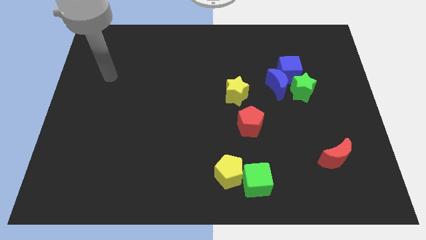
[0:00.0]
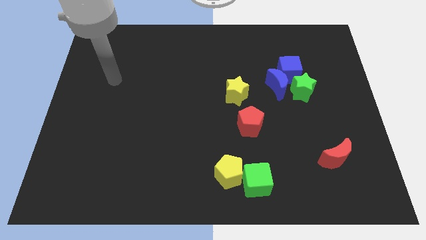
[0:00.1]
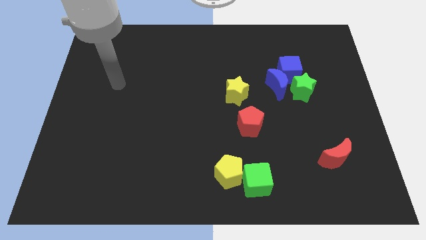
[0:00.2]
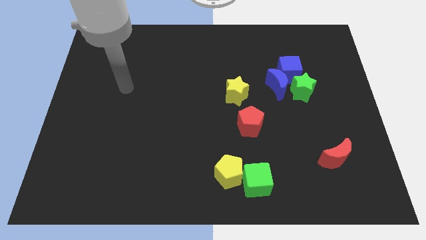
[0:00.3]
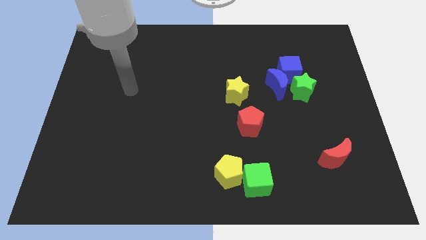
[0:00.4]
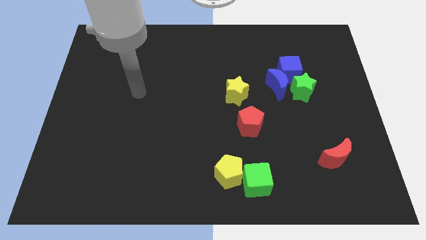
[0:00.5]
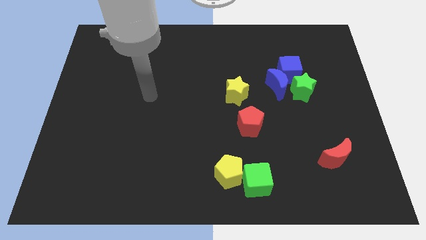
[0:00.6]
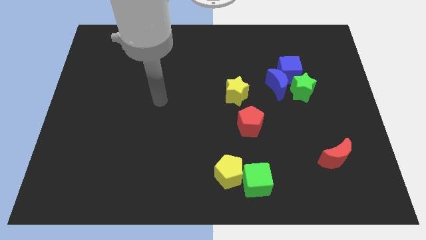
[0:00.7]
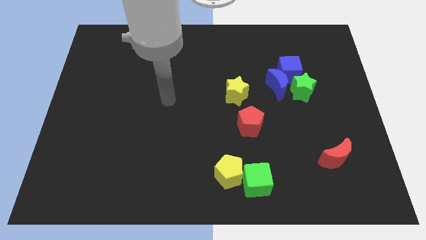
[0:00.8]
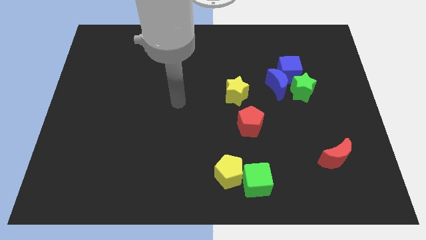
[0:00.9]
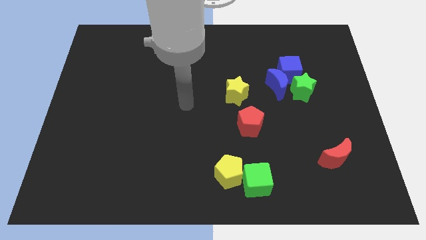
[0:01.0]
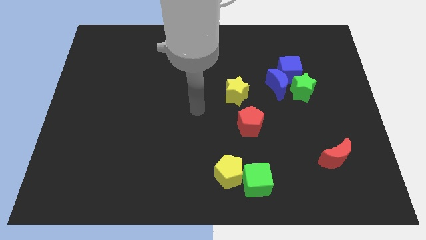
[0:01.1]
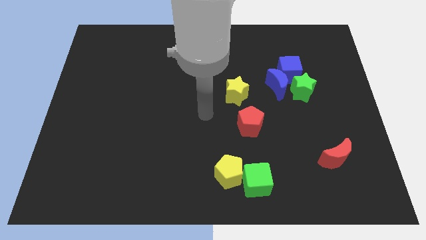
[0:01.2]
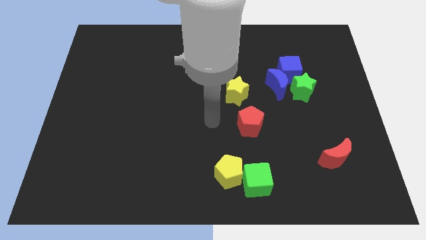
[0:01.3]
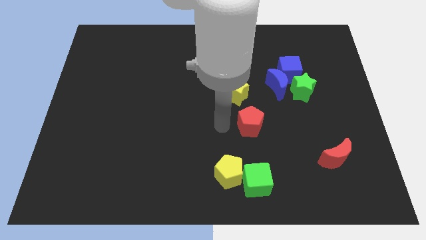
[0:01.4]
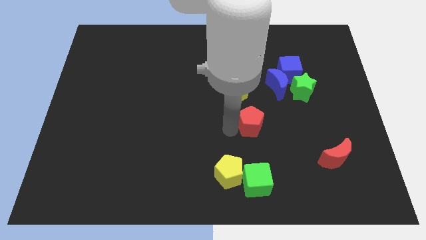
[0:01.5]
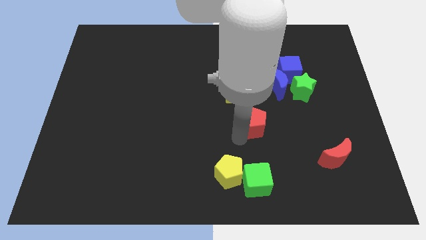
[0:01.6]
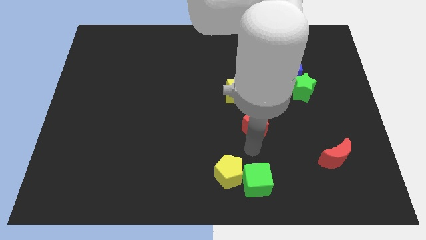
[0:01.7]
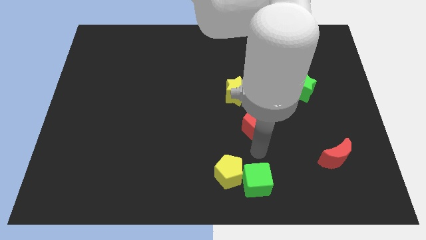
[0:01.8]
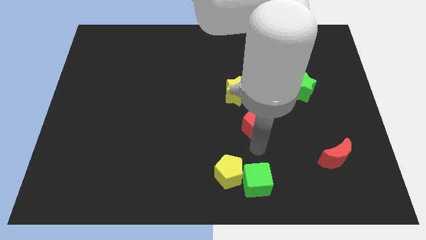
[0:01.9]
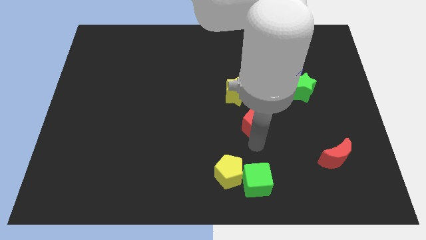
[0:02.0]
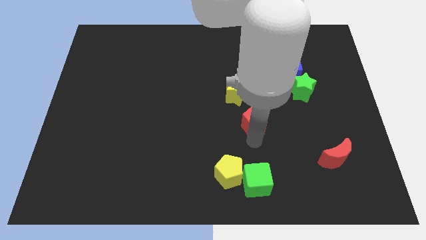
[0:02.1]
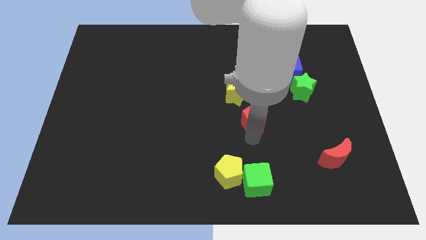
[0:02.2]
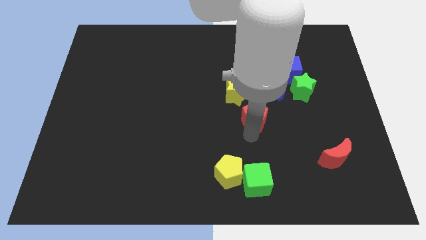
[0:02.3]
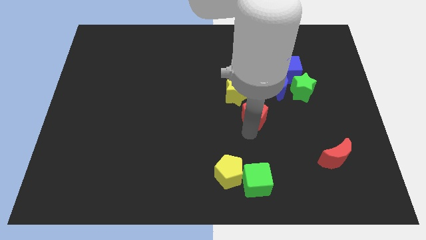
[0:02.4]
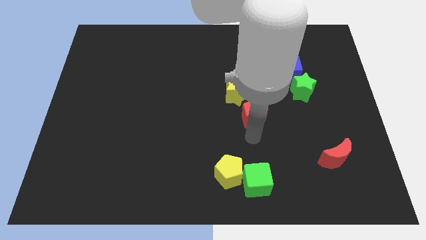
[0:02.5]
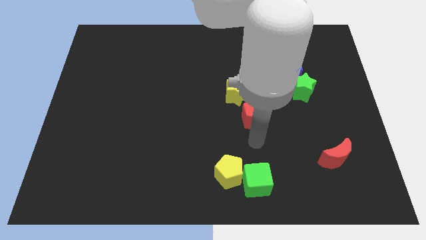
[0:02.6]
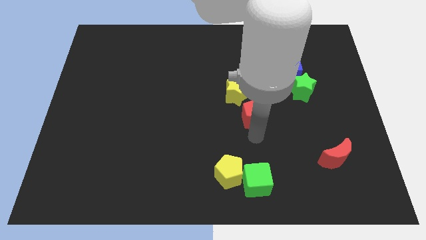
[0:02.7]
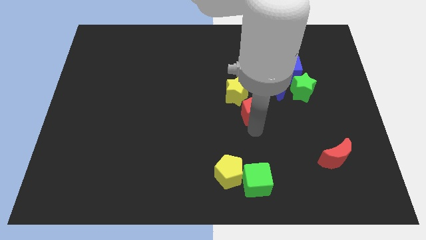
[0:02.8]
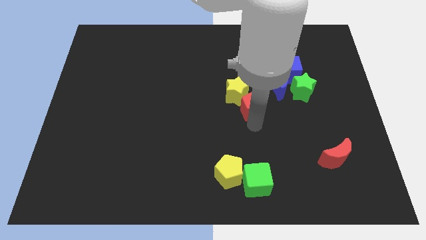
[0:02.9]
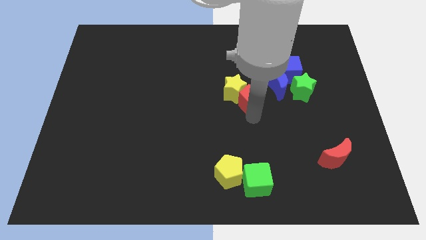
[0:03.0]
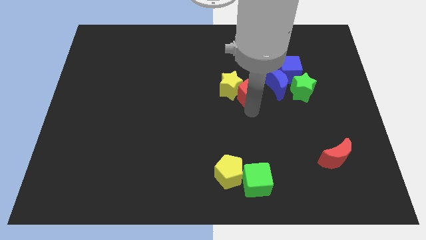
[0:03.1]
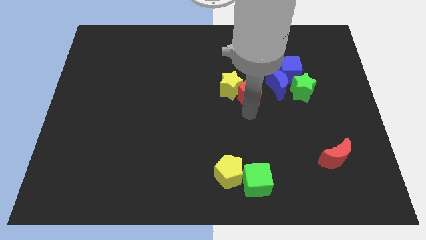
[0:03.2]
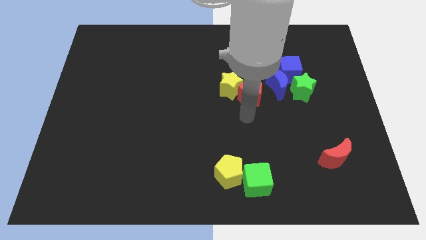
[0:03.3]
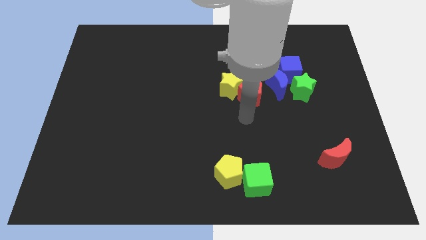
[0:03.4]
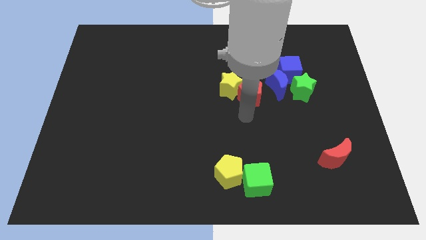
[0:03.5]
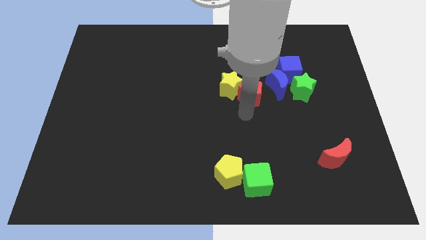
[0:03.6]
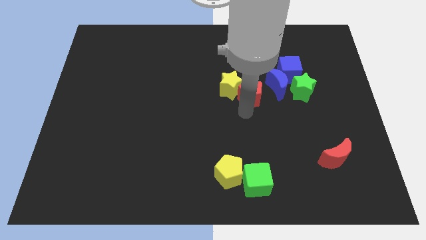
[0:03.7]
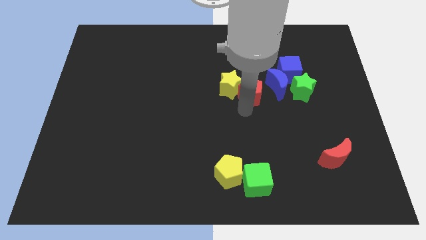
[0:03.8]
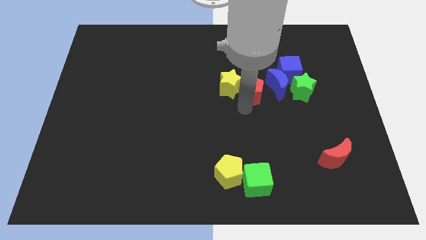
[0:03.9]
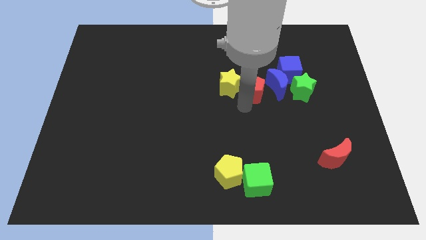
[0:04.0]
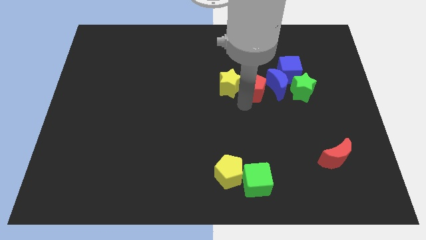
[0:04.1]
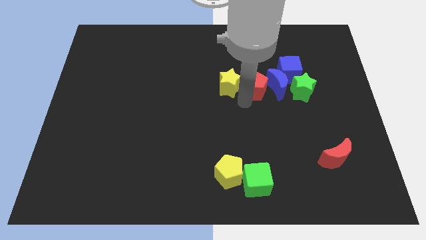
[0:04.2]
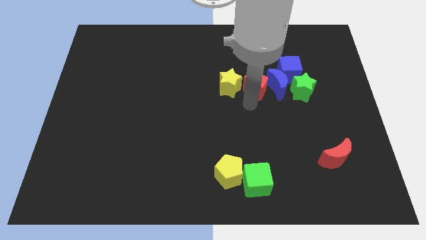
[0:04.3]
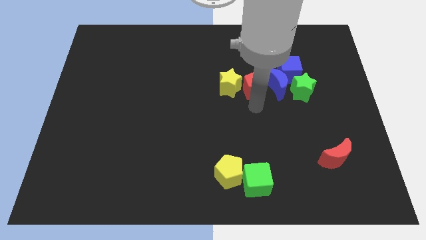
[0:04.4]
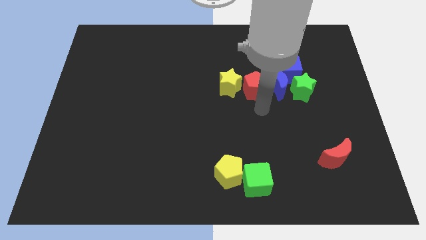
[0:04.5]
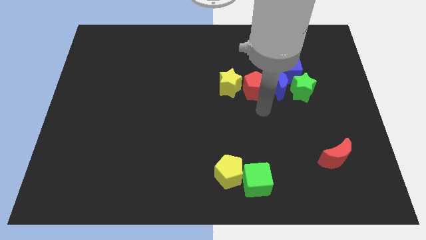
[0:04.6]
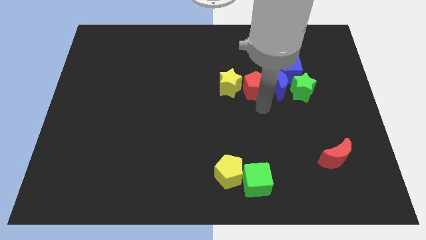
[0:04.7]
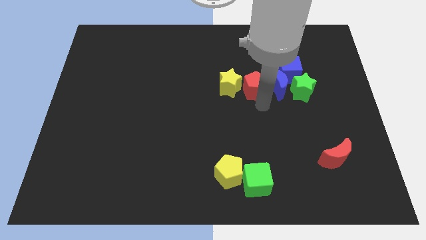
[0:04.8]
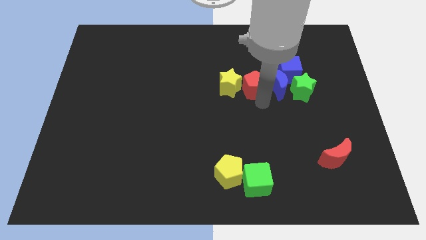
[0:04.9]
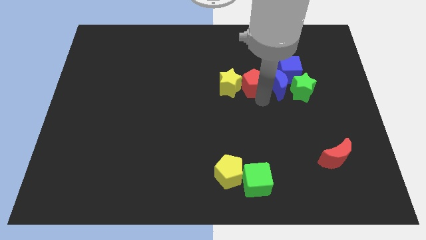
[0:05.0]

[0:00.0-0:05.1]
slide the red pentagon left of the blue cube

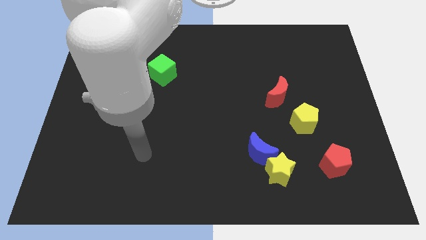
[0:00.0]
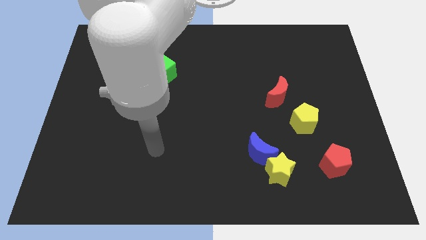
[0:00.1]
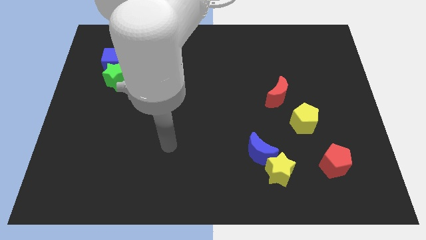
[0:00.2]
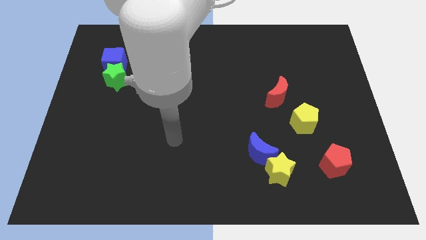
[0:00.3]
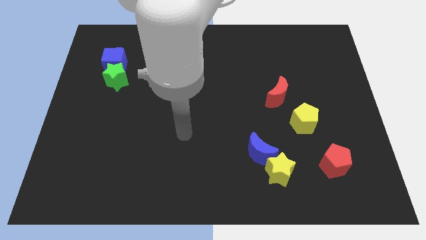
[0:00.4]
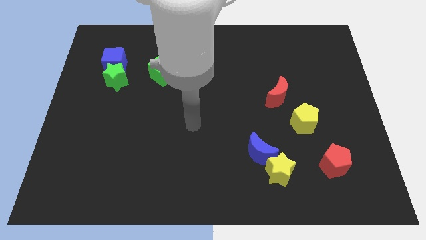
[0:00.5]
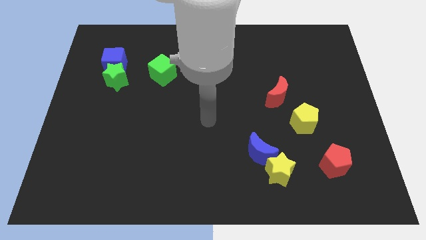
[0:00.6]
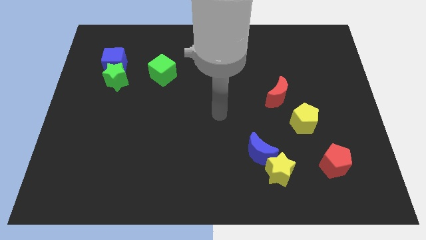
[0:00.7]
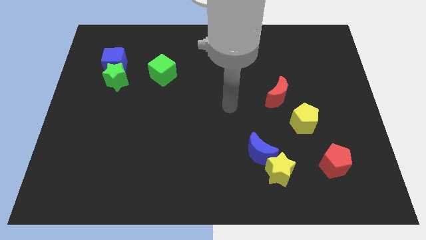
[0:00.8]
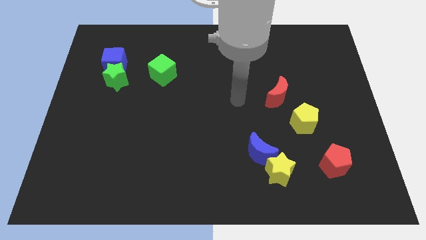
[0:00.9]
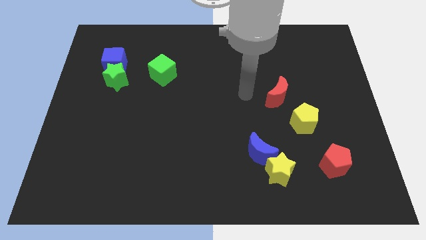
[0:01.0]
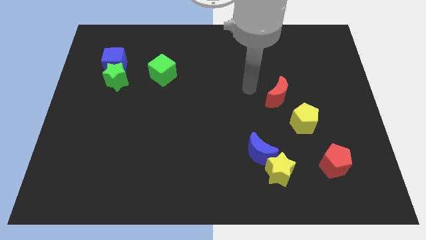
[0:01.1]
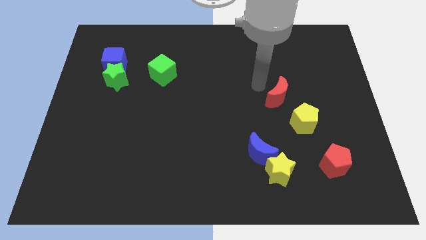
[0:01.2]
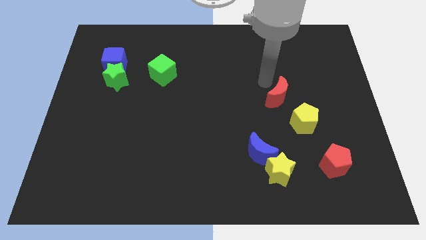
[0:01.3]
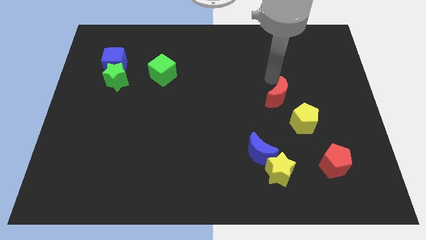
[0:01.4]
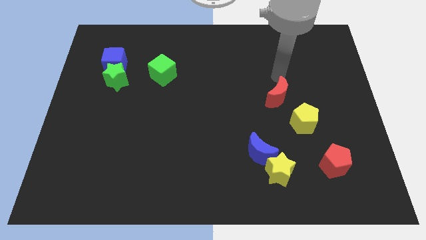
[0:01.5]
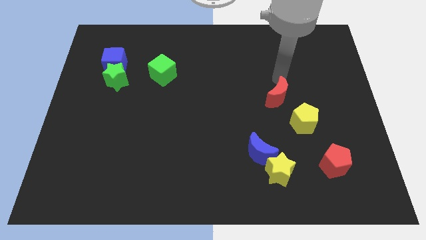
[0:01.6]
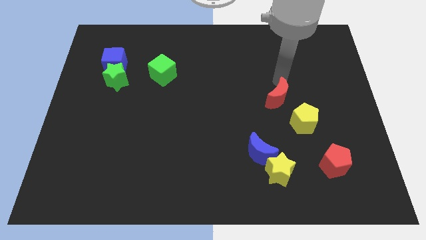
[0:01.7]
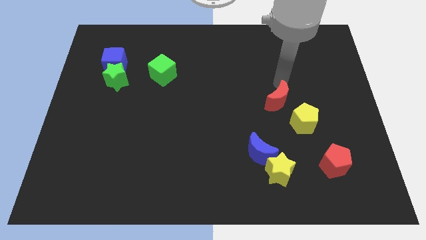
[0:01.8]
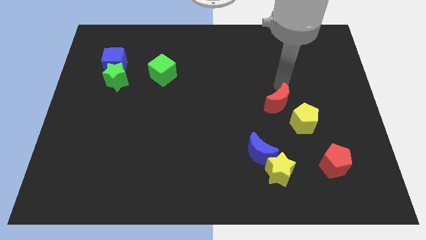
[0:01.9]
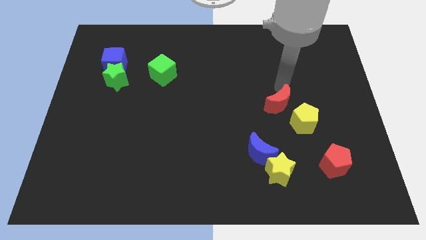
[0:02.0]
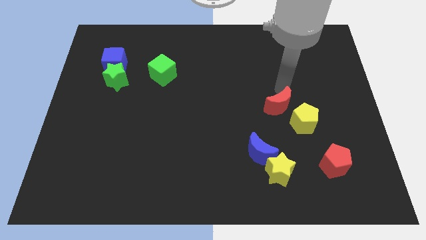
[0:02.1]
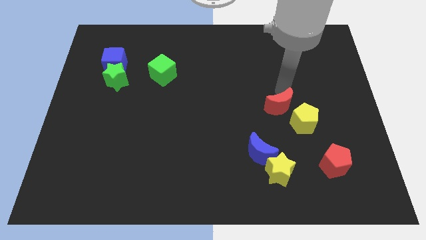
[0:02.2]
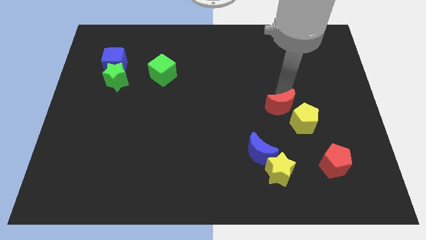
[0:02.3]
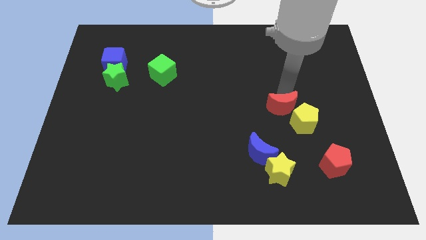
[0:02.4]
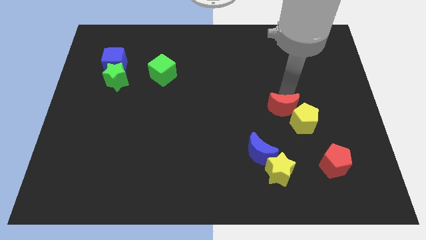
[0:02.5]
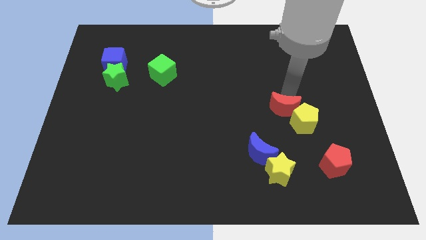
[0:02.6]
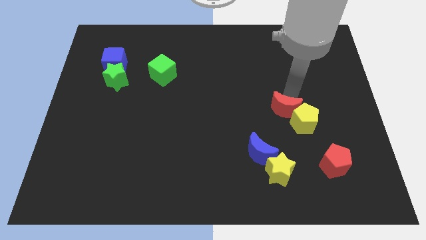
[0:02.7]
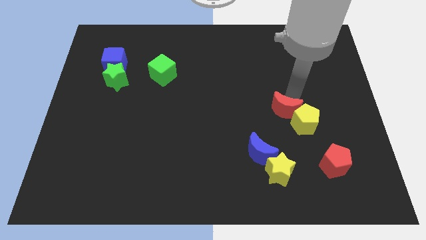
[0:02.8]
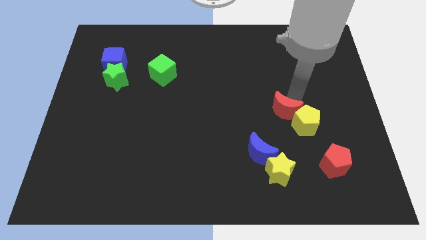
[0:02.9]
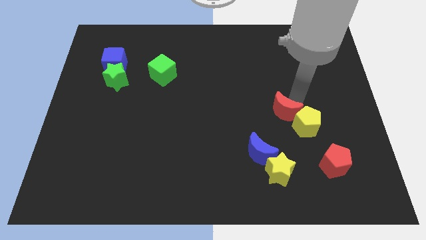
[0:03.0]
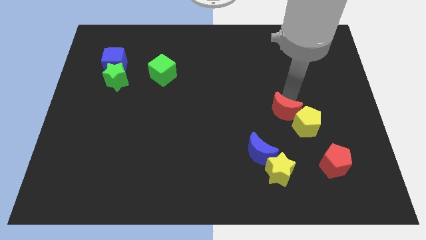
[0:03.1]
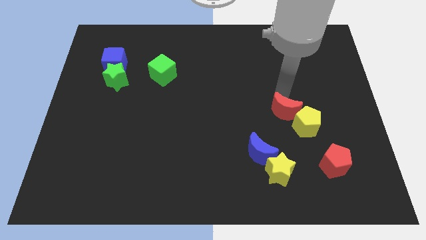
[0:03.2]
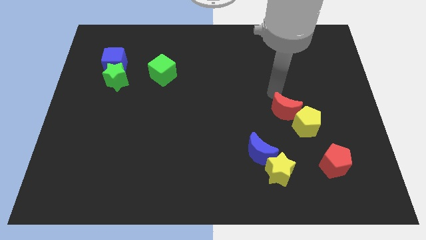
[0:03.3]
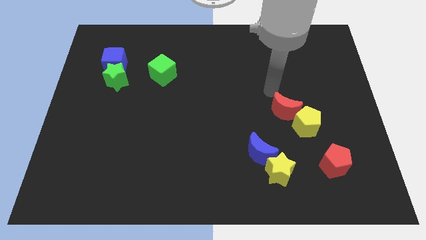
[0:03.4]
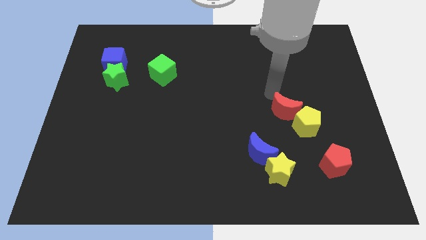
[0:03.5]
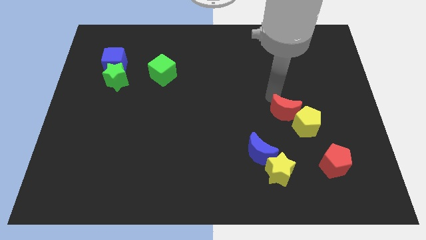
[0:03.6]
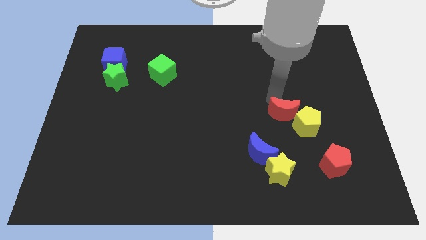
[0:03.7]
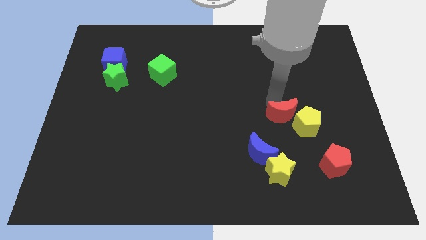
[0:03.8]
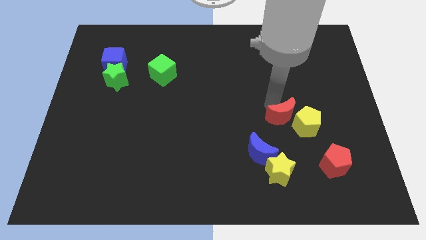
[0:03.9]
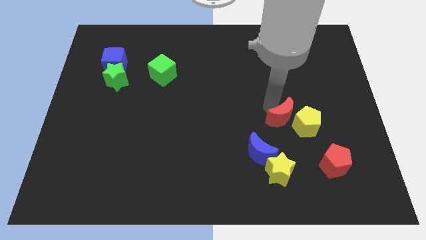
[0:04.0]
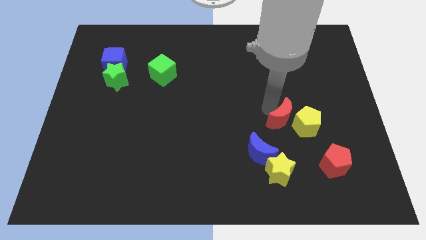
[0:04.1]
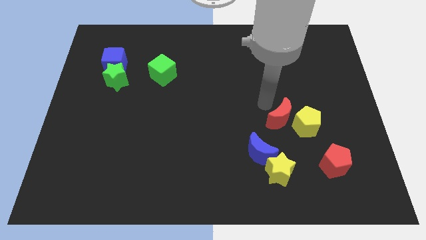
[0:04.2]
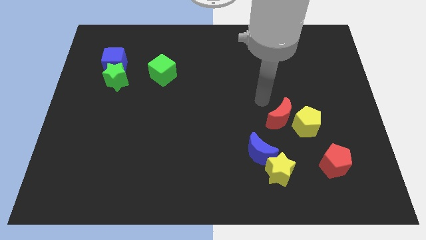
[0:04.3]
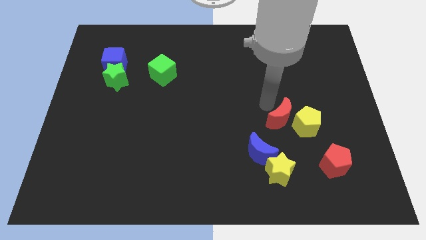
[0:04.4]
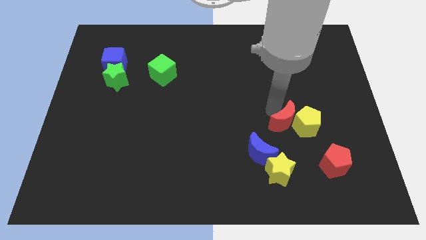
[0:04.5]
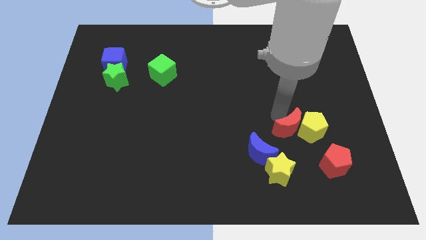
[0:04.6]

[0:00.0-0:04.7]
push the red moon to the top left of the red pentagon
